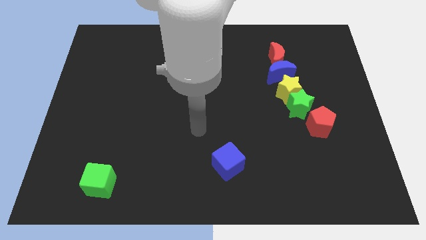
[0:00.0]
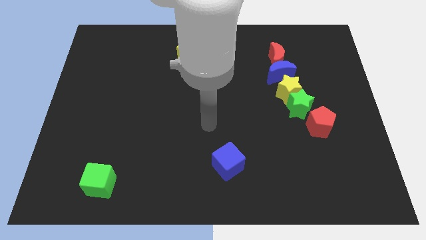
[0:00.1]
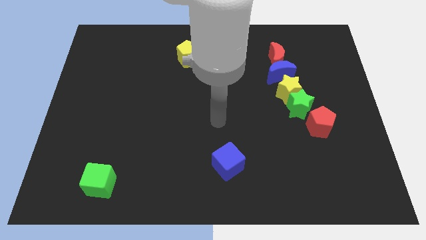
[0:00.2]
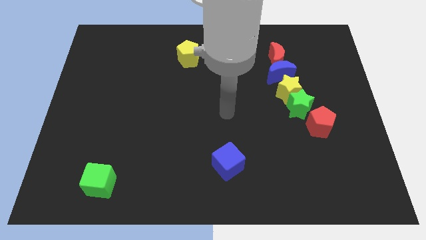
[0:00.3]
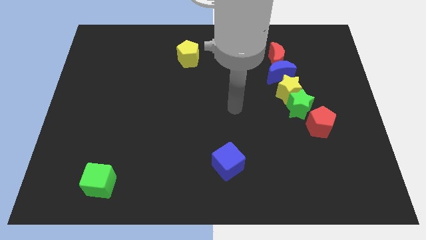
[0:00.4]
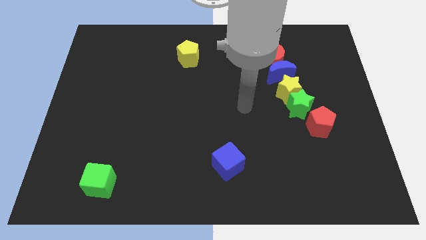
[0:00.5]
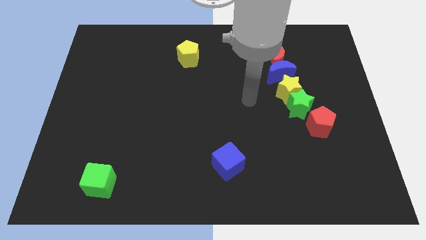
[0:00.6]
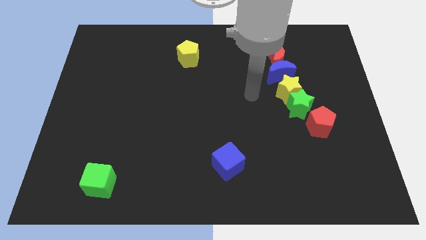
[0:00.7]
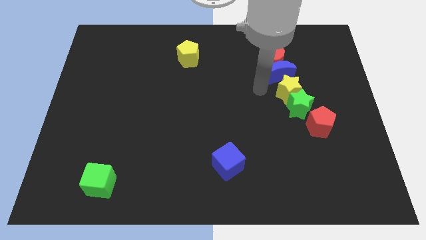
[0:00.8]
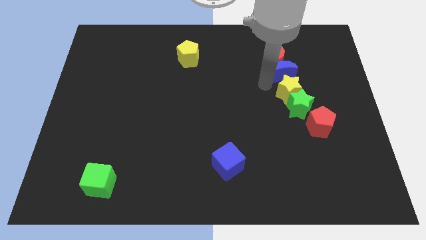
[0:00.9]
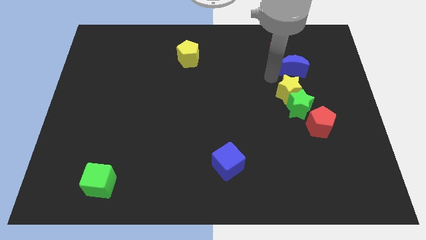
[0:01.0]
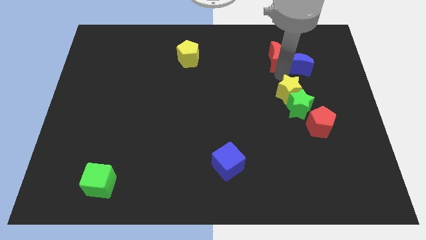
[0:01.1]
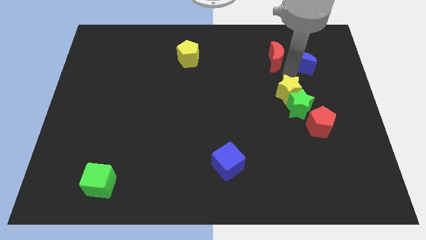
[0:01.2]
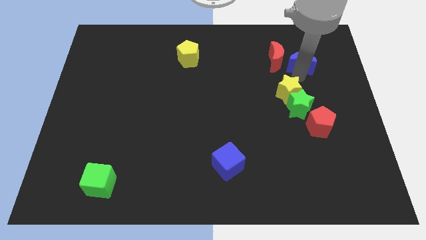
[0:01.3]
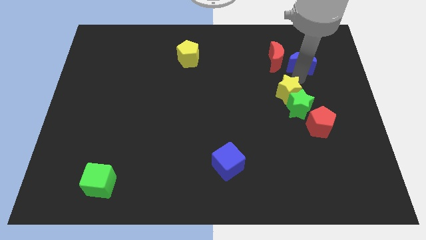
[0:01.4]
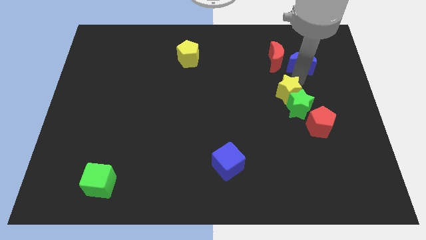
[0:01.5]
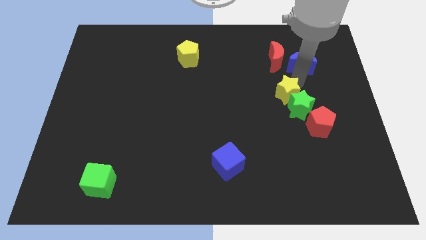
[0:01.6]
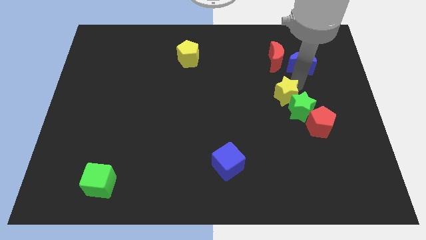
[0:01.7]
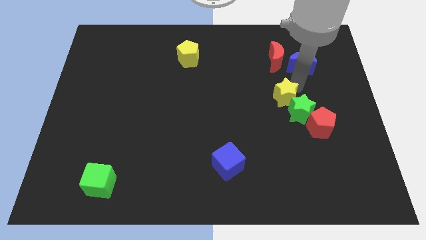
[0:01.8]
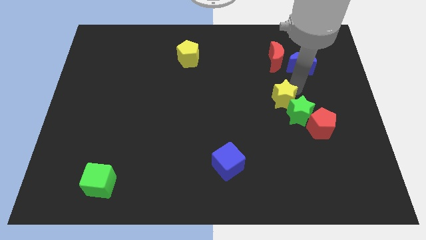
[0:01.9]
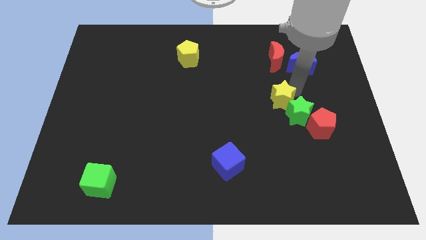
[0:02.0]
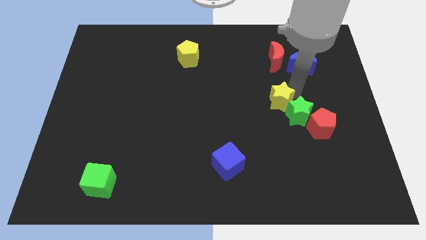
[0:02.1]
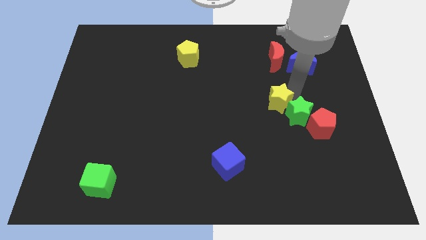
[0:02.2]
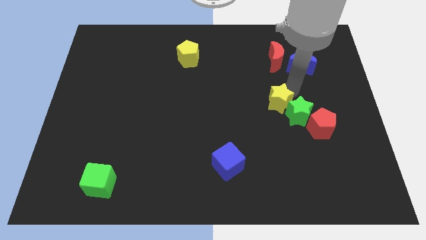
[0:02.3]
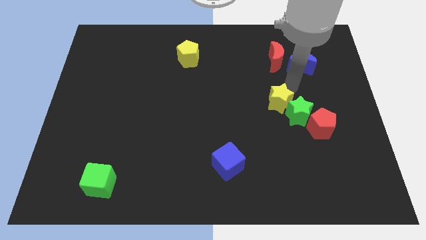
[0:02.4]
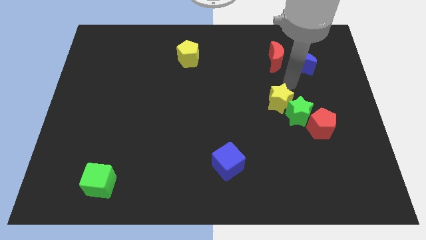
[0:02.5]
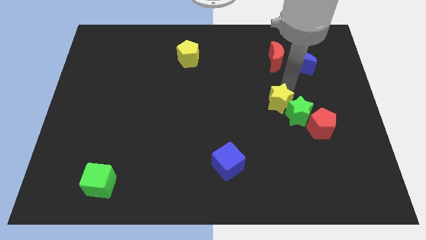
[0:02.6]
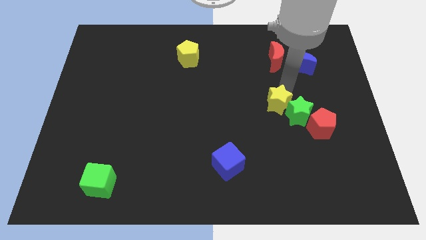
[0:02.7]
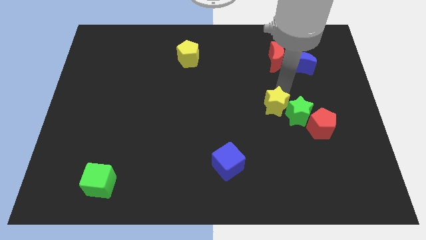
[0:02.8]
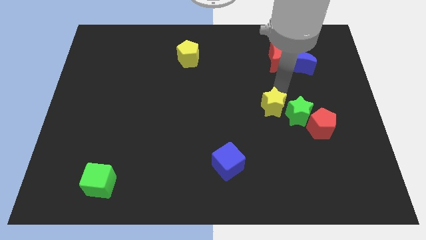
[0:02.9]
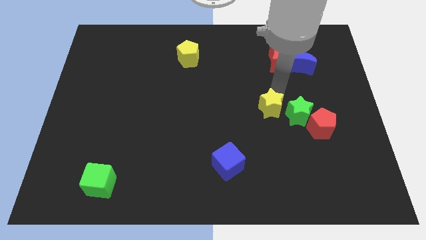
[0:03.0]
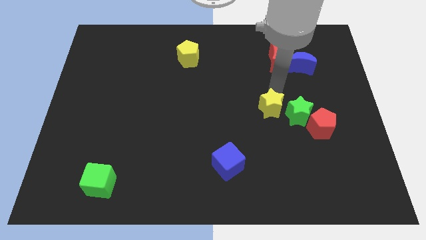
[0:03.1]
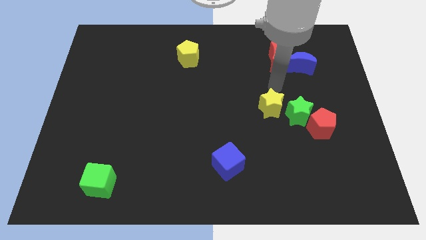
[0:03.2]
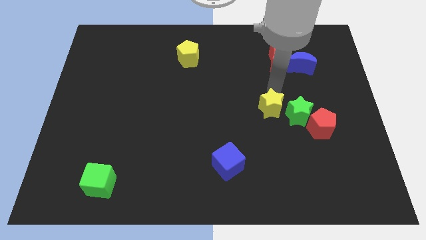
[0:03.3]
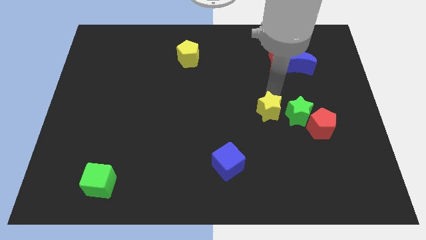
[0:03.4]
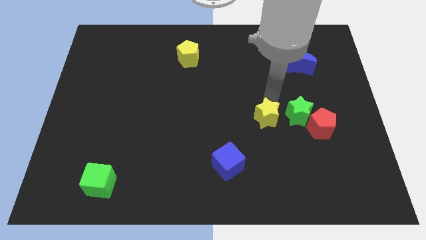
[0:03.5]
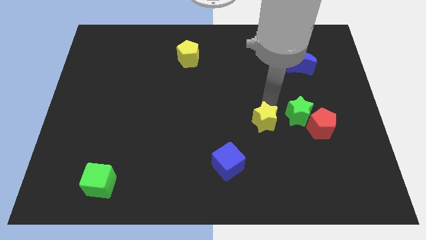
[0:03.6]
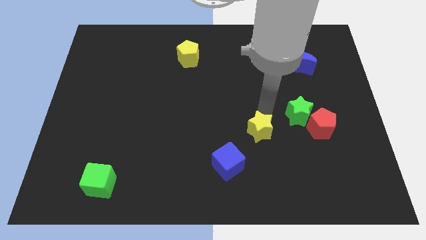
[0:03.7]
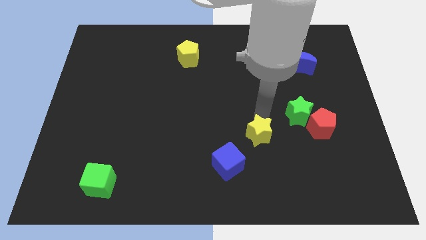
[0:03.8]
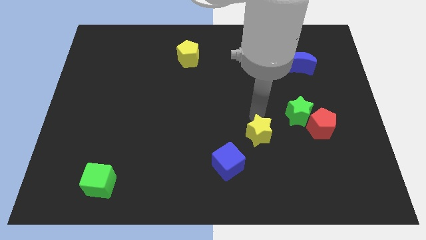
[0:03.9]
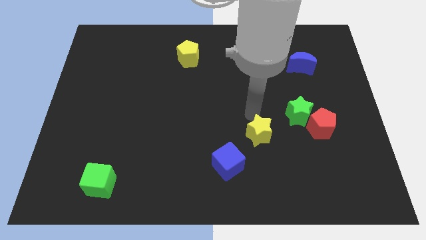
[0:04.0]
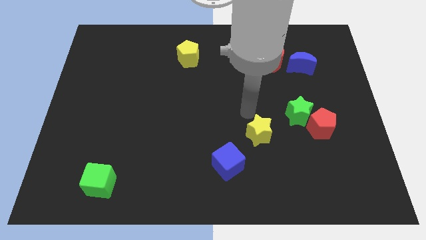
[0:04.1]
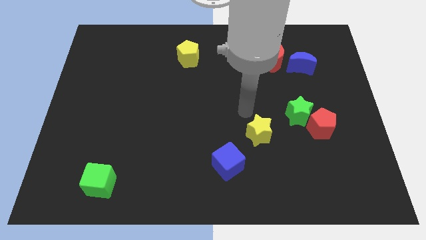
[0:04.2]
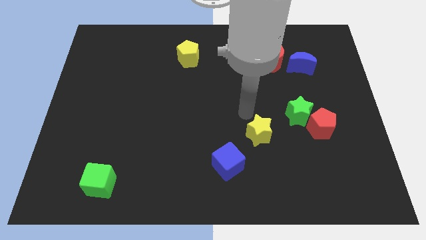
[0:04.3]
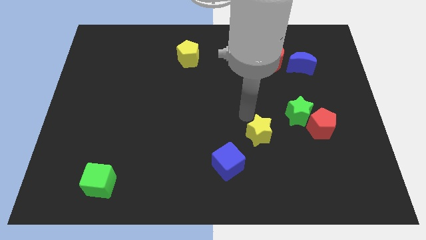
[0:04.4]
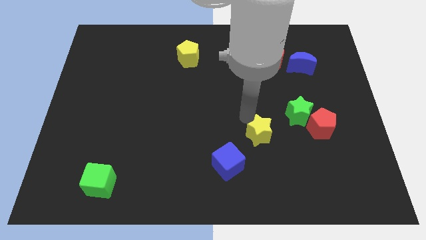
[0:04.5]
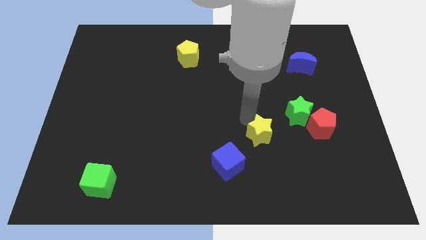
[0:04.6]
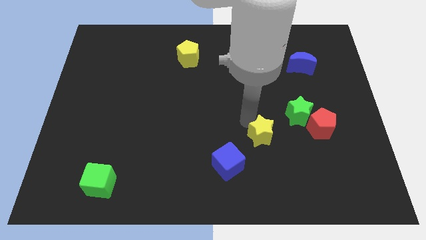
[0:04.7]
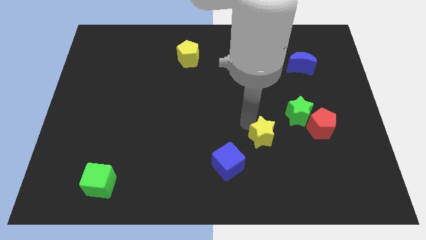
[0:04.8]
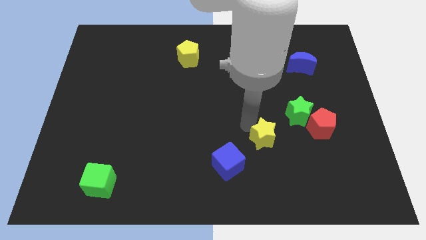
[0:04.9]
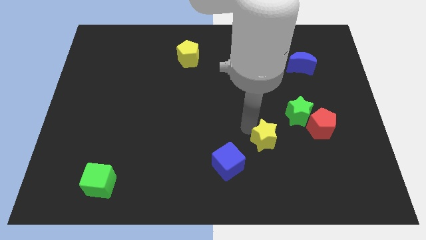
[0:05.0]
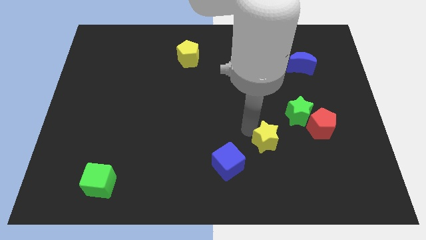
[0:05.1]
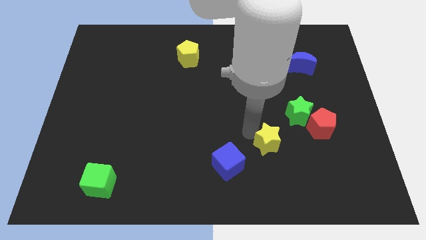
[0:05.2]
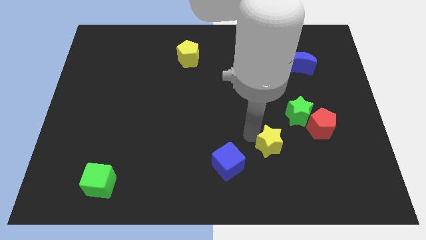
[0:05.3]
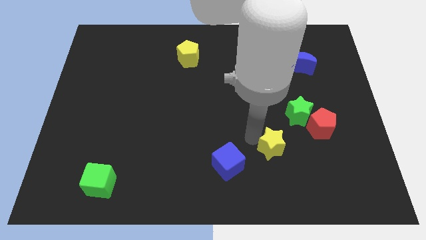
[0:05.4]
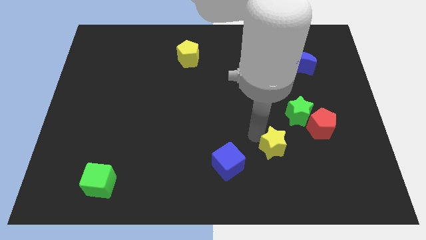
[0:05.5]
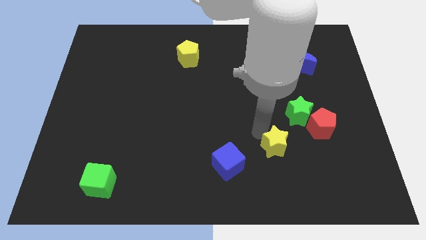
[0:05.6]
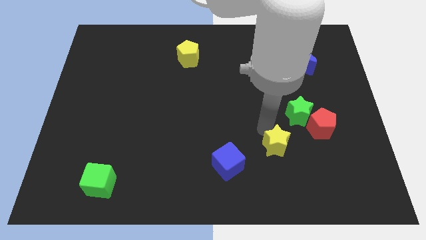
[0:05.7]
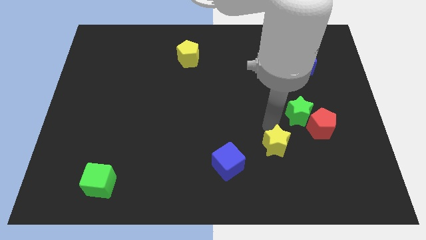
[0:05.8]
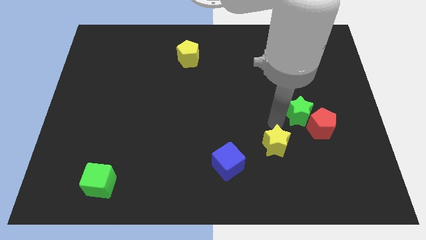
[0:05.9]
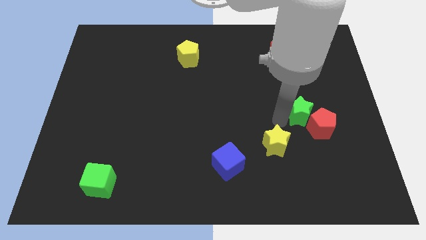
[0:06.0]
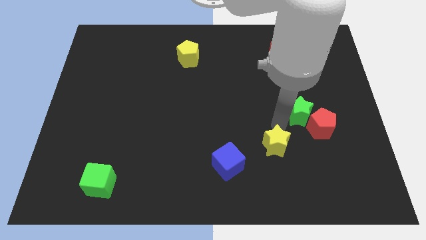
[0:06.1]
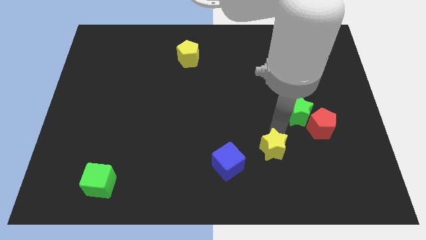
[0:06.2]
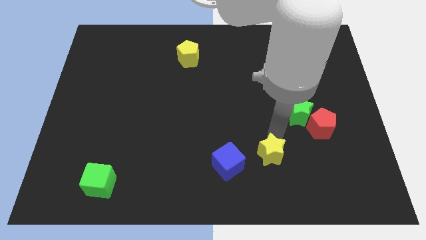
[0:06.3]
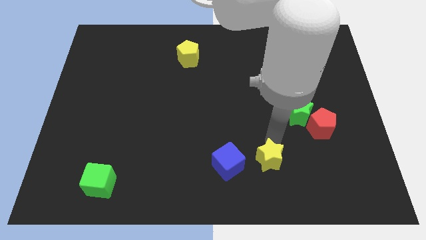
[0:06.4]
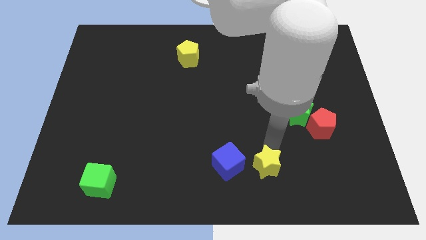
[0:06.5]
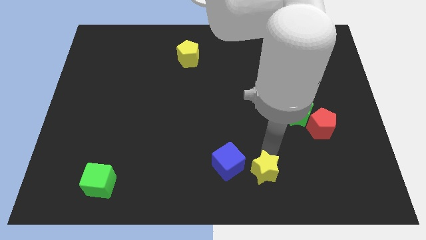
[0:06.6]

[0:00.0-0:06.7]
slide the yellow star to the bottom side
